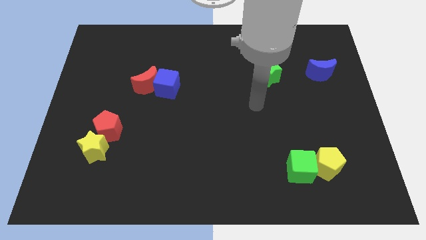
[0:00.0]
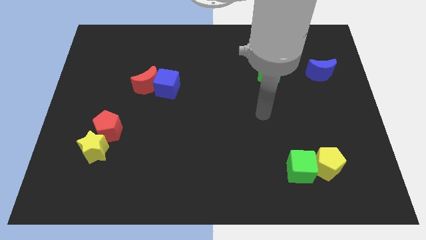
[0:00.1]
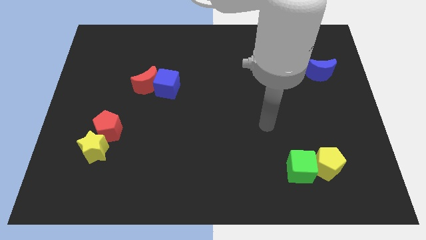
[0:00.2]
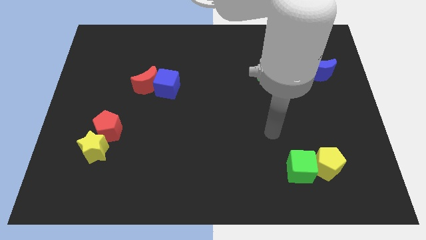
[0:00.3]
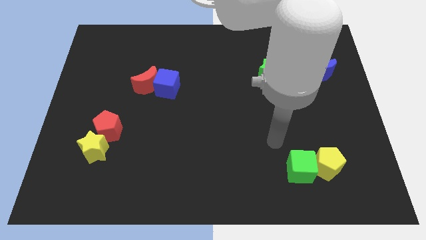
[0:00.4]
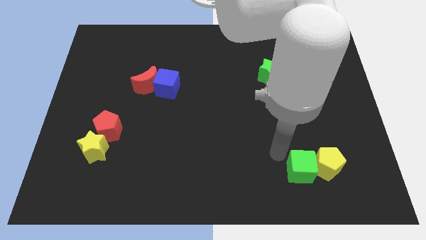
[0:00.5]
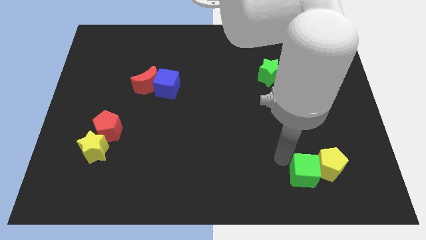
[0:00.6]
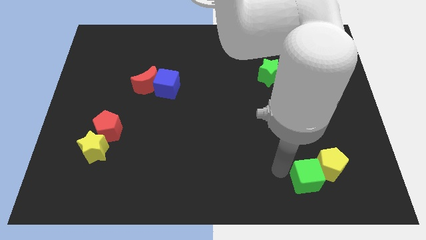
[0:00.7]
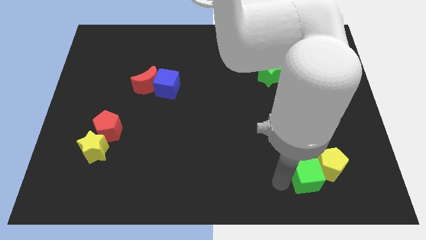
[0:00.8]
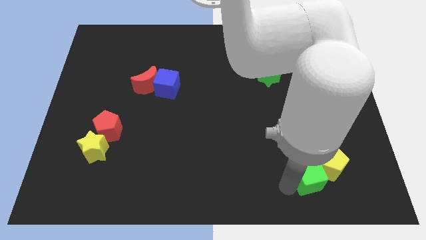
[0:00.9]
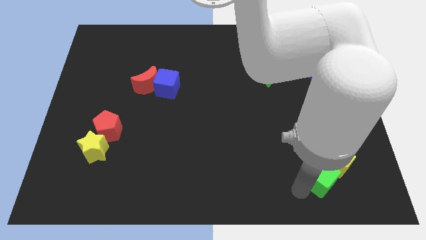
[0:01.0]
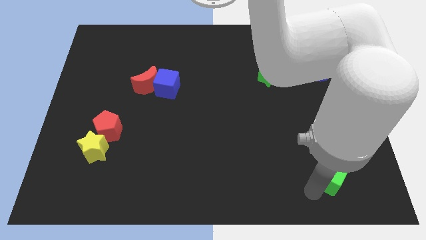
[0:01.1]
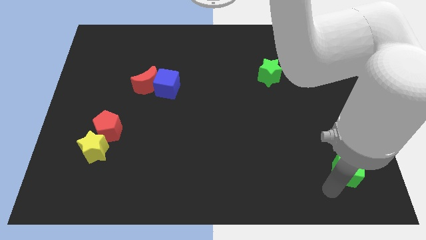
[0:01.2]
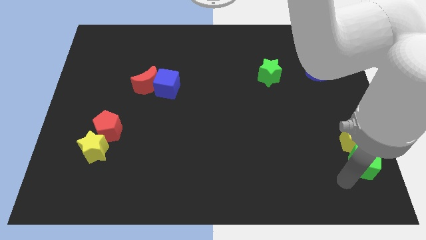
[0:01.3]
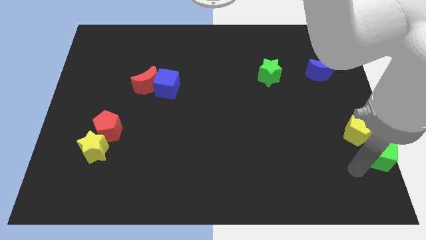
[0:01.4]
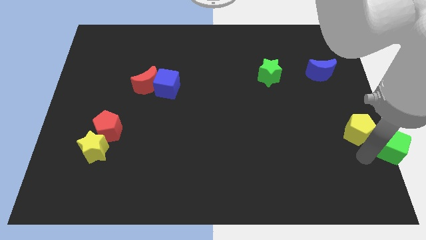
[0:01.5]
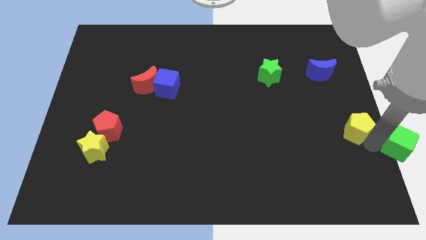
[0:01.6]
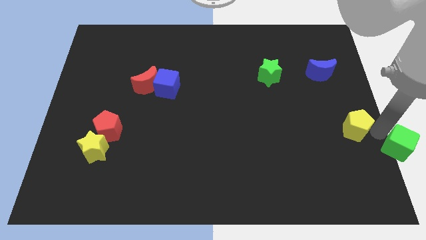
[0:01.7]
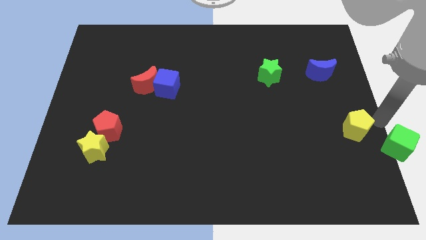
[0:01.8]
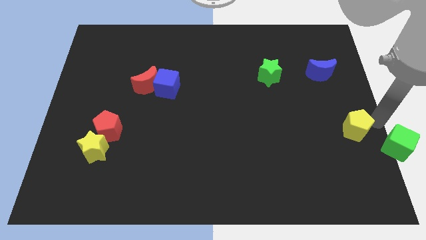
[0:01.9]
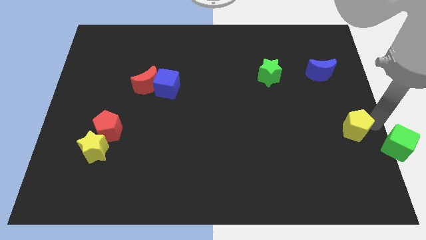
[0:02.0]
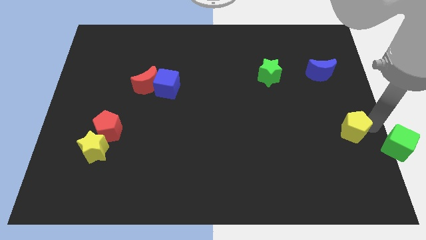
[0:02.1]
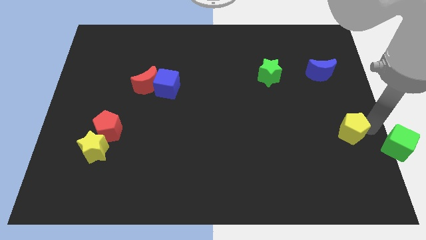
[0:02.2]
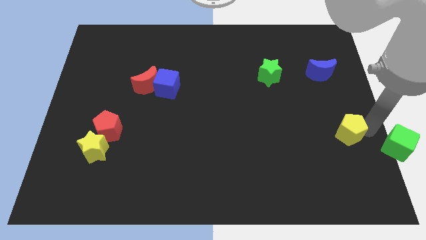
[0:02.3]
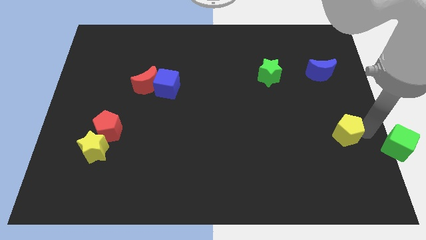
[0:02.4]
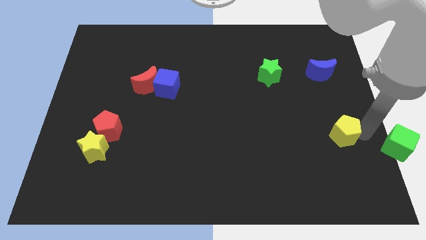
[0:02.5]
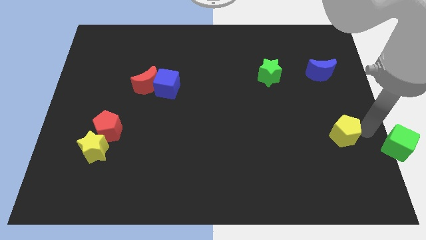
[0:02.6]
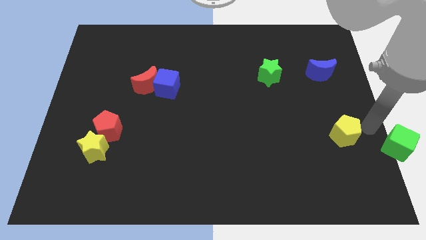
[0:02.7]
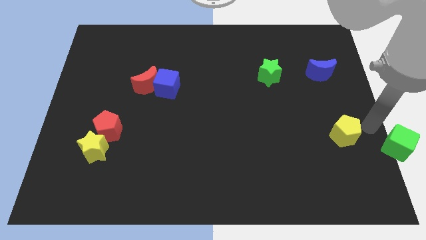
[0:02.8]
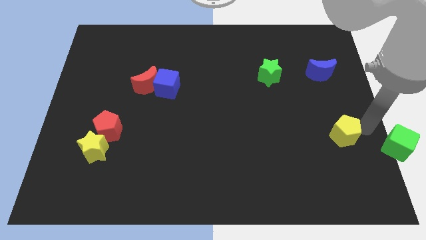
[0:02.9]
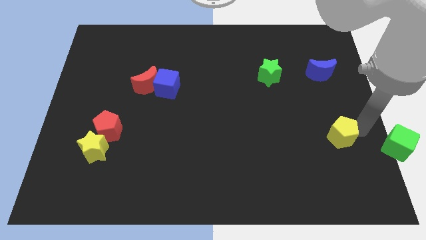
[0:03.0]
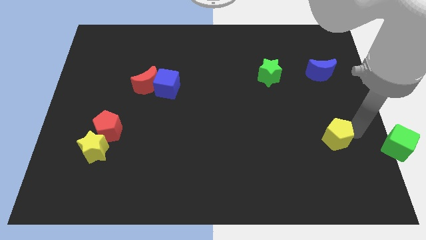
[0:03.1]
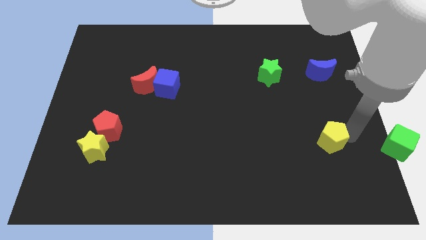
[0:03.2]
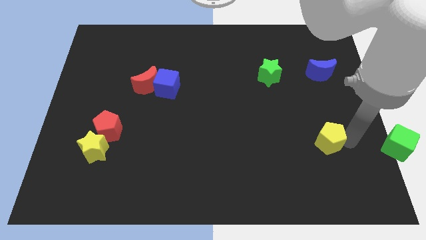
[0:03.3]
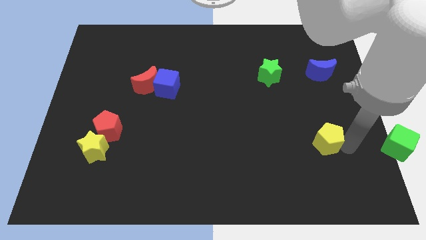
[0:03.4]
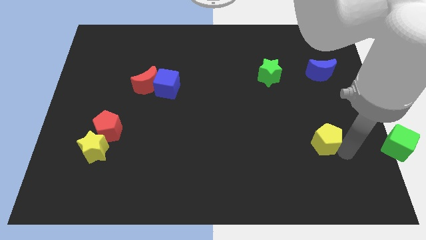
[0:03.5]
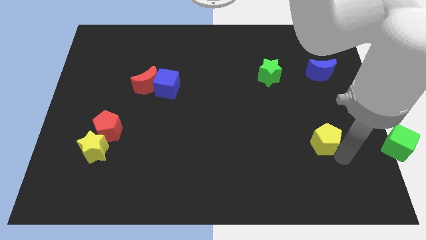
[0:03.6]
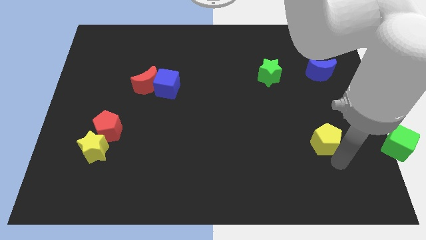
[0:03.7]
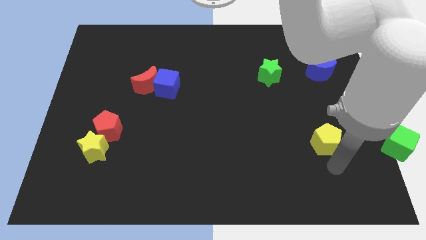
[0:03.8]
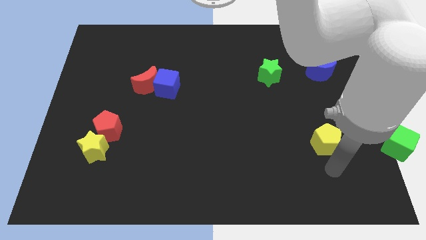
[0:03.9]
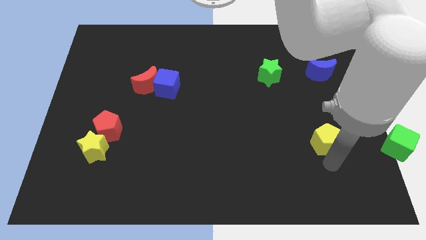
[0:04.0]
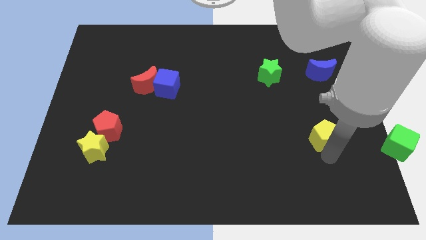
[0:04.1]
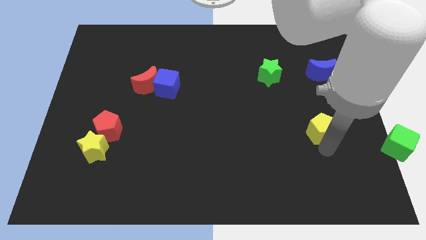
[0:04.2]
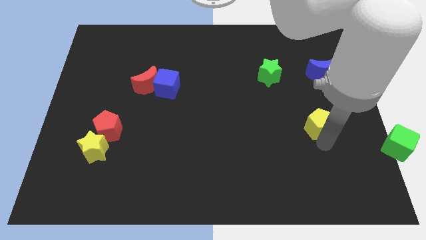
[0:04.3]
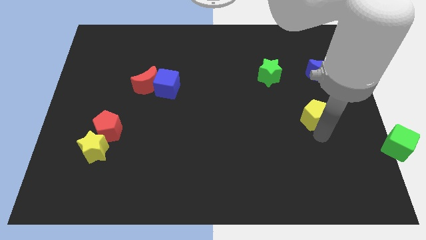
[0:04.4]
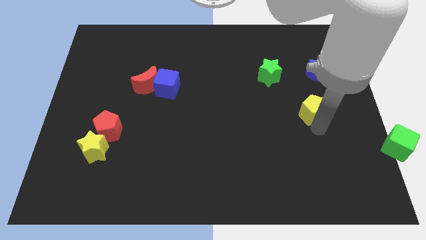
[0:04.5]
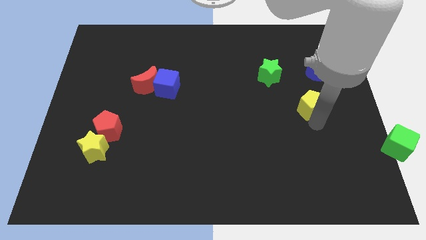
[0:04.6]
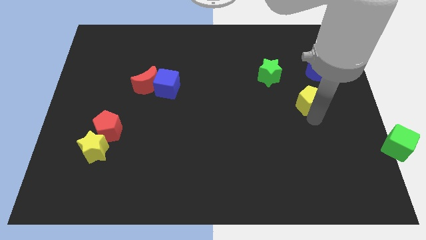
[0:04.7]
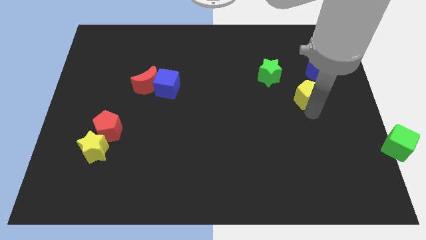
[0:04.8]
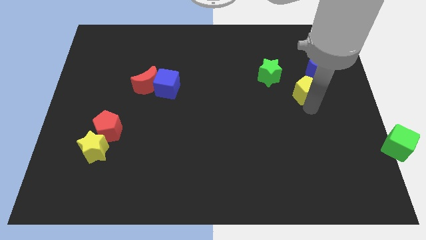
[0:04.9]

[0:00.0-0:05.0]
push the yellow pentagon up

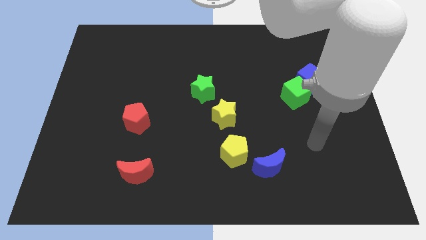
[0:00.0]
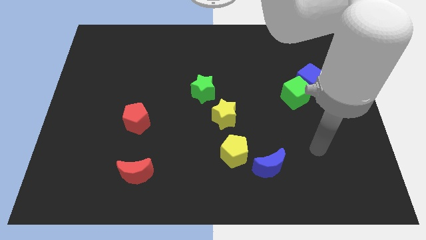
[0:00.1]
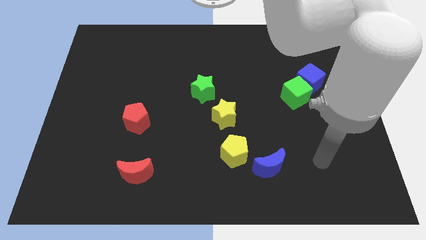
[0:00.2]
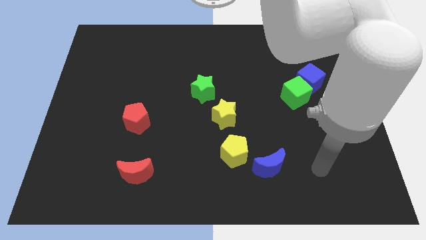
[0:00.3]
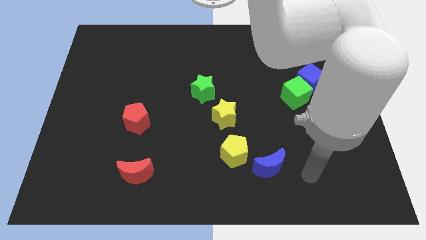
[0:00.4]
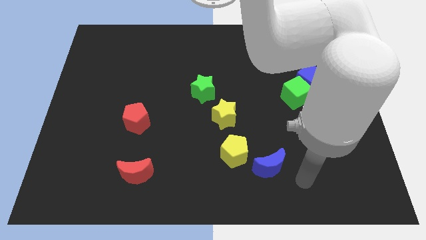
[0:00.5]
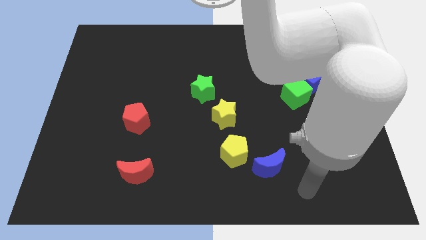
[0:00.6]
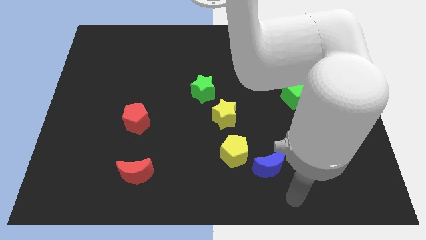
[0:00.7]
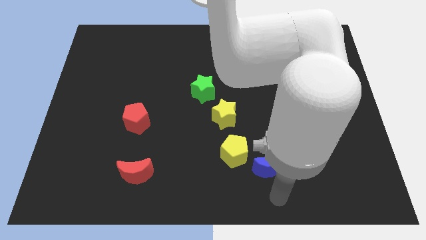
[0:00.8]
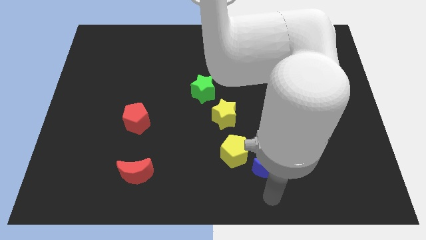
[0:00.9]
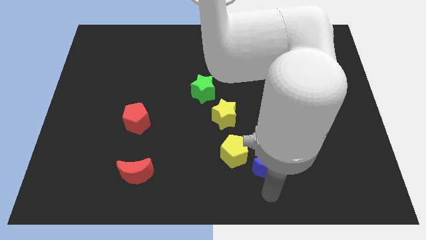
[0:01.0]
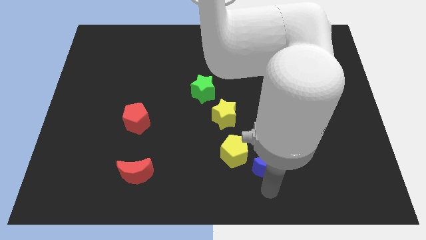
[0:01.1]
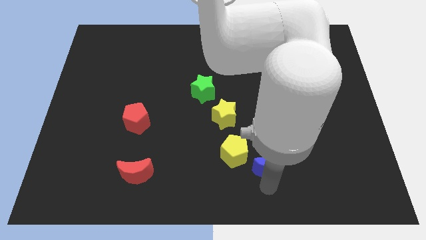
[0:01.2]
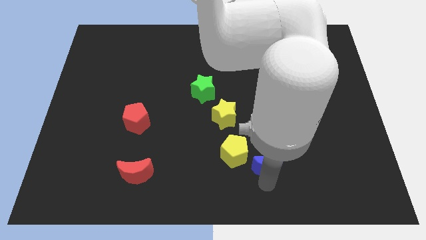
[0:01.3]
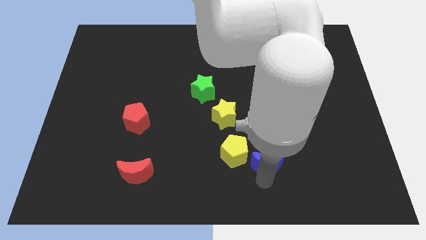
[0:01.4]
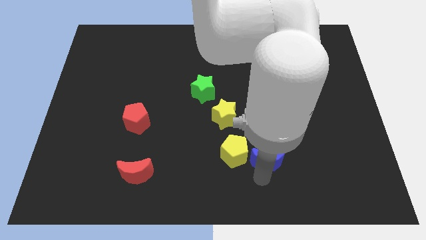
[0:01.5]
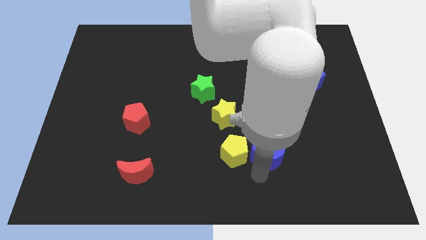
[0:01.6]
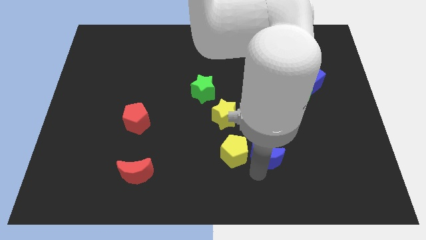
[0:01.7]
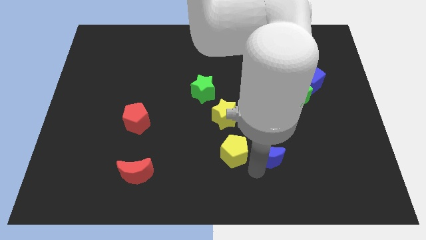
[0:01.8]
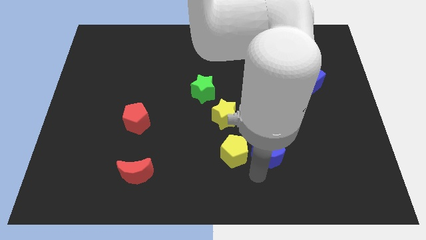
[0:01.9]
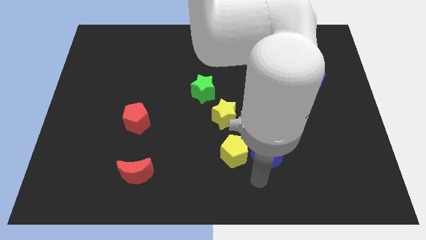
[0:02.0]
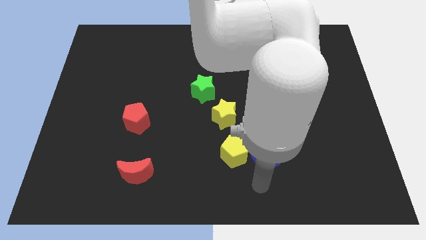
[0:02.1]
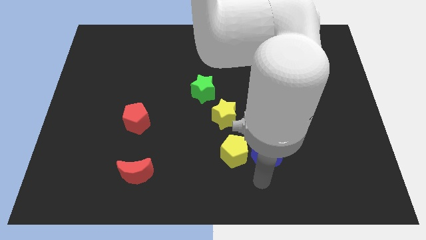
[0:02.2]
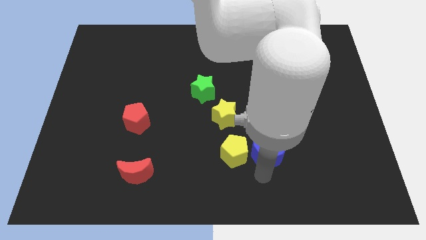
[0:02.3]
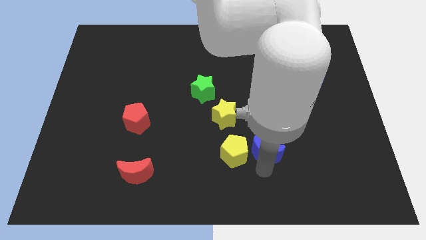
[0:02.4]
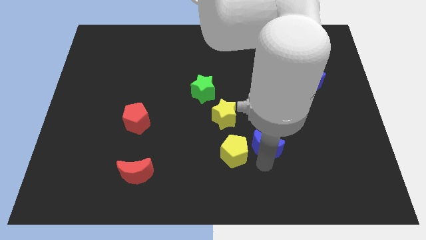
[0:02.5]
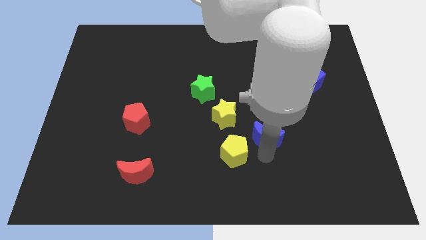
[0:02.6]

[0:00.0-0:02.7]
push the blue moon a little bit upwards

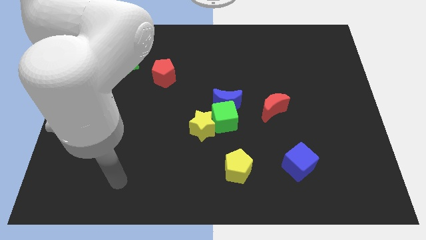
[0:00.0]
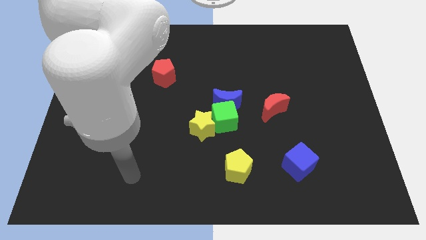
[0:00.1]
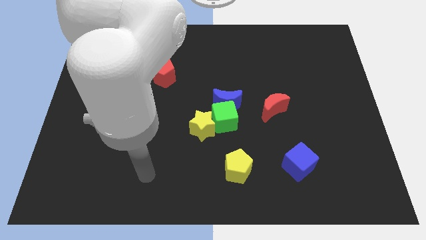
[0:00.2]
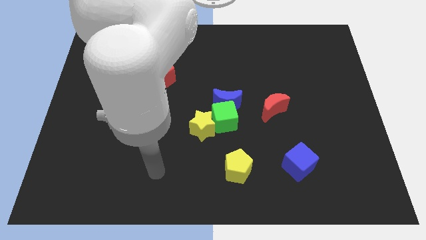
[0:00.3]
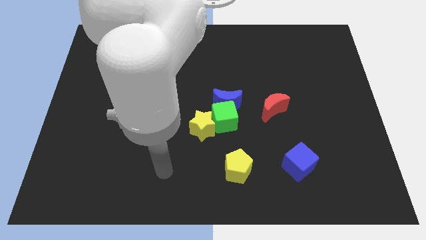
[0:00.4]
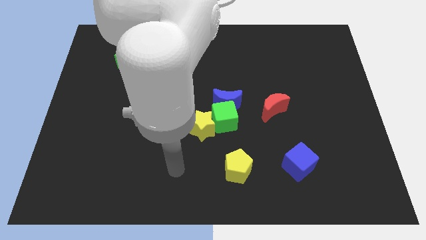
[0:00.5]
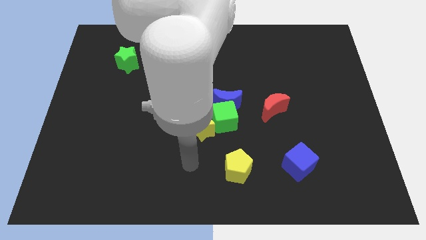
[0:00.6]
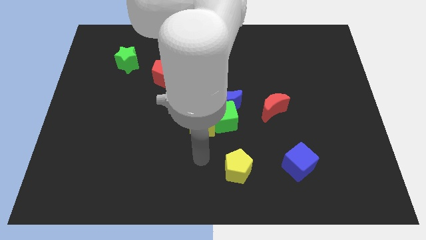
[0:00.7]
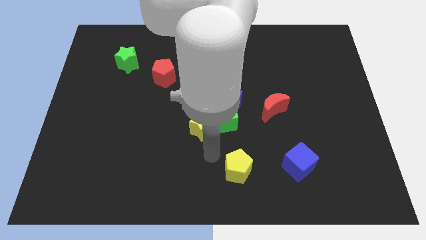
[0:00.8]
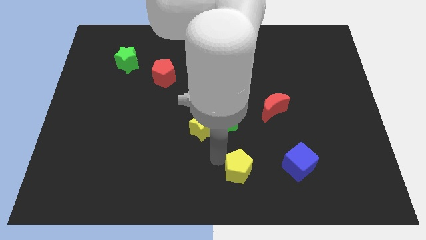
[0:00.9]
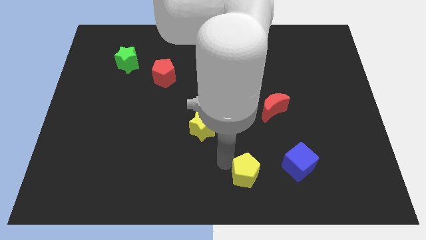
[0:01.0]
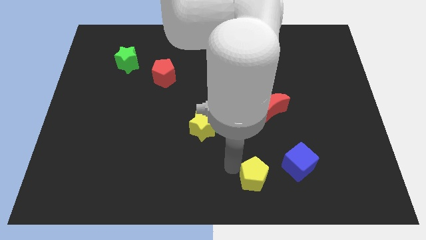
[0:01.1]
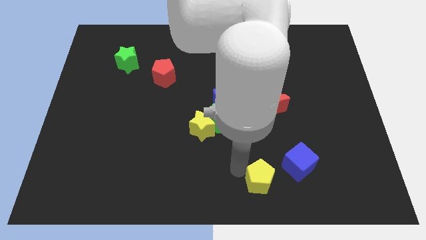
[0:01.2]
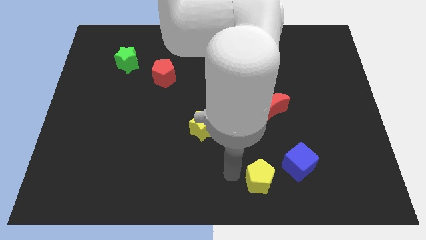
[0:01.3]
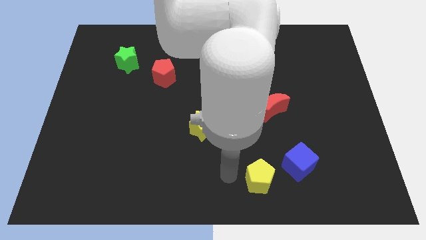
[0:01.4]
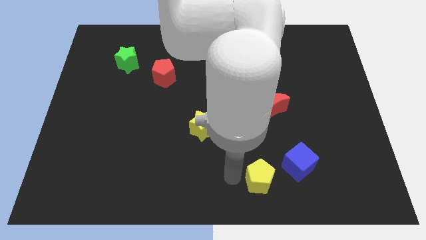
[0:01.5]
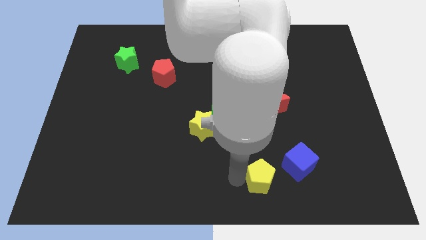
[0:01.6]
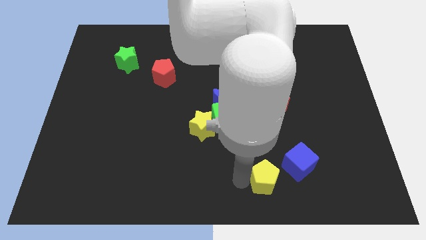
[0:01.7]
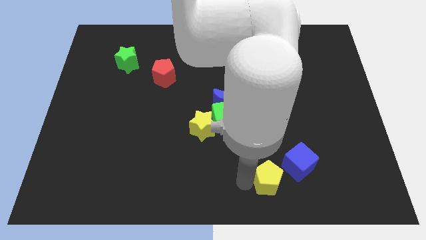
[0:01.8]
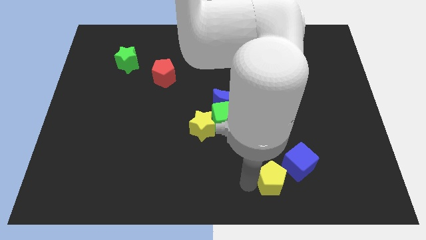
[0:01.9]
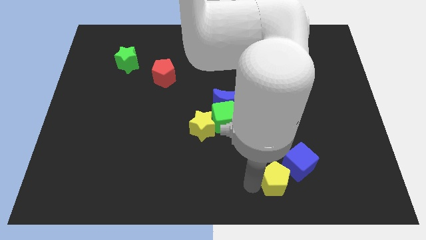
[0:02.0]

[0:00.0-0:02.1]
slightly slide the yellow pentagon to the right
